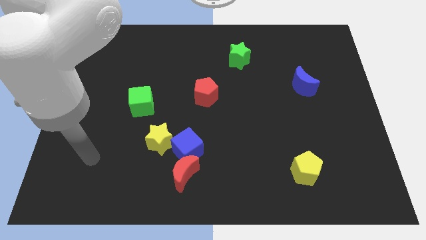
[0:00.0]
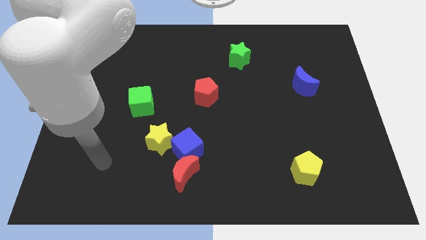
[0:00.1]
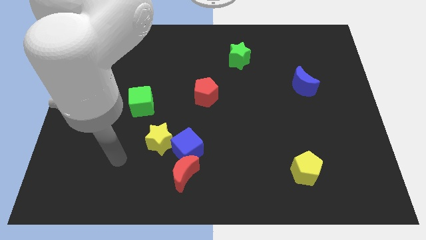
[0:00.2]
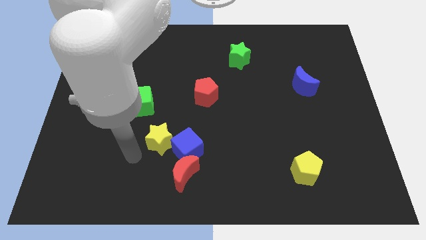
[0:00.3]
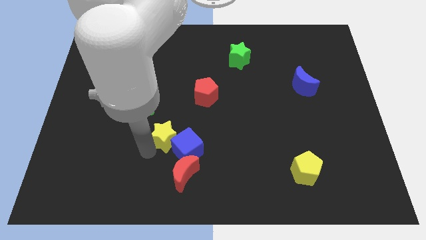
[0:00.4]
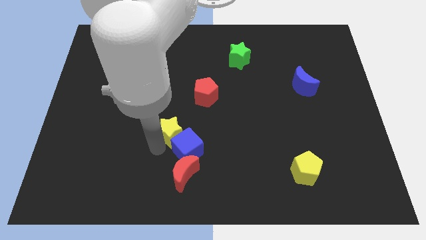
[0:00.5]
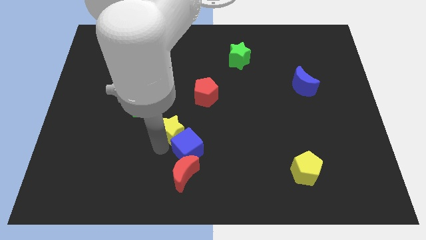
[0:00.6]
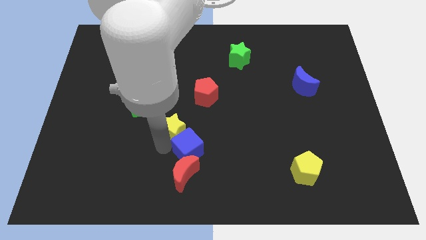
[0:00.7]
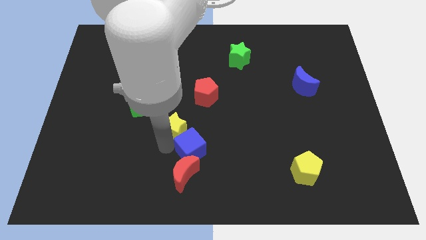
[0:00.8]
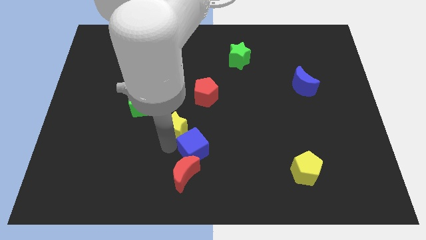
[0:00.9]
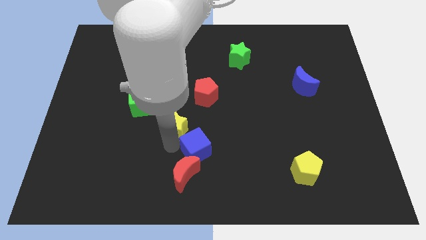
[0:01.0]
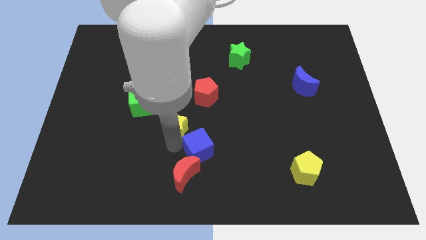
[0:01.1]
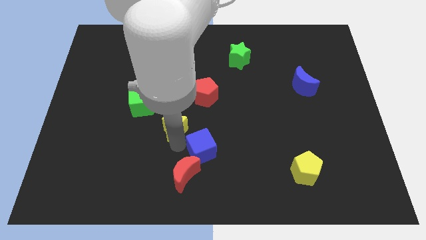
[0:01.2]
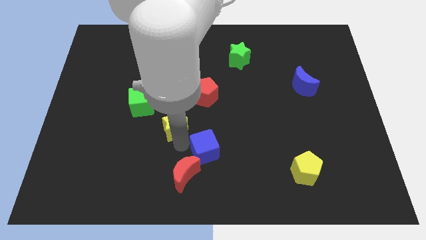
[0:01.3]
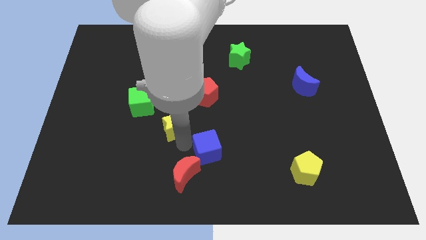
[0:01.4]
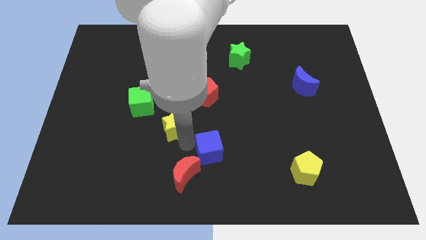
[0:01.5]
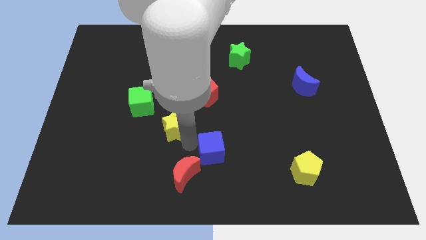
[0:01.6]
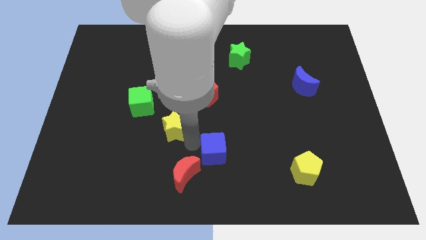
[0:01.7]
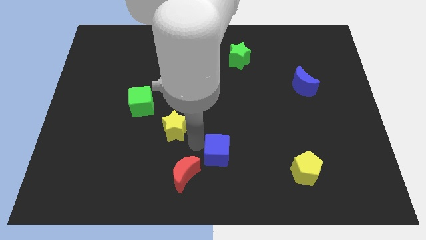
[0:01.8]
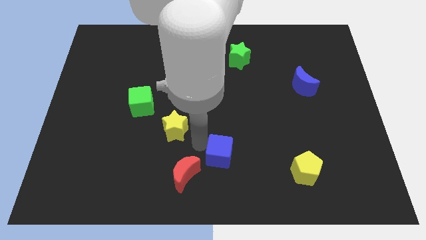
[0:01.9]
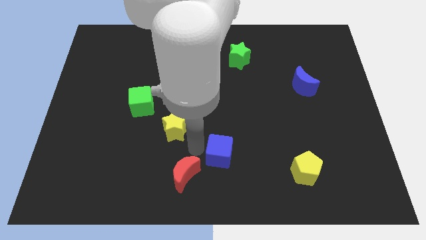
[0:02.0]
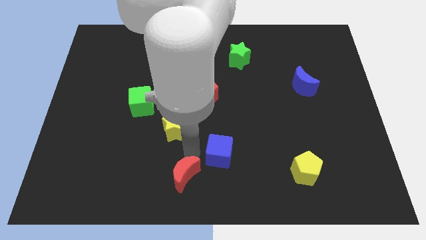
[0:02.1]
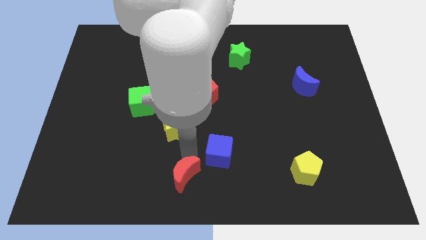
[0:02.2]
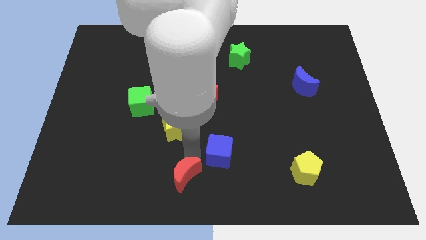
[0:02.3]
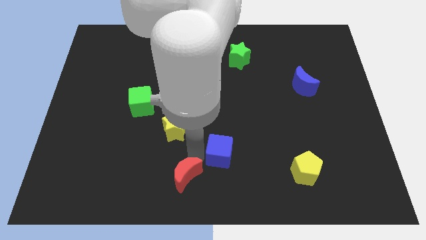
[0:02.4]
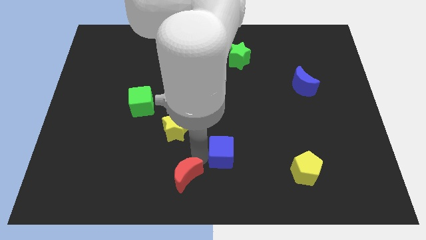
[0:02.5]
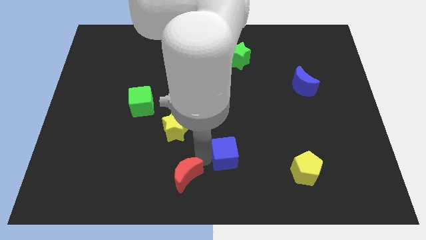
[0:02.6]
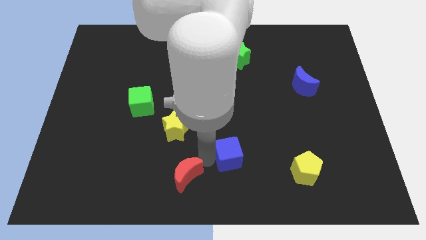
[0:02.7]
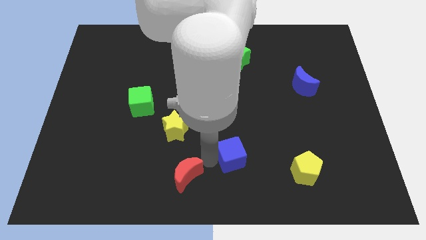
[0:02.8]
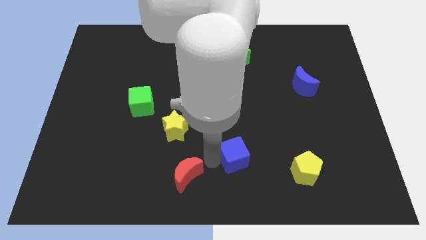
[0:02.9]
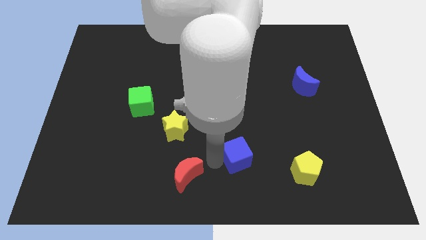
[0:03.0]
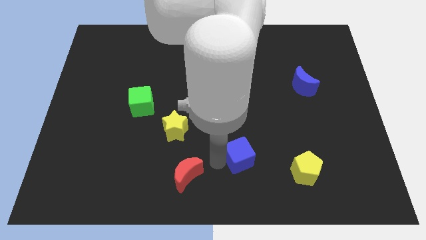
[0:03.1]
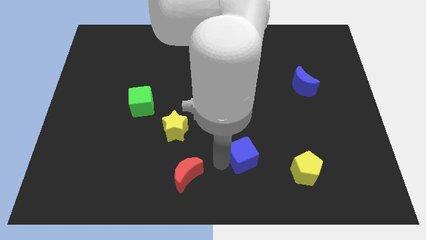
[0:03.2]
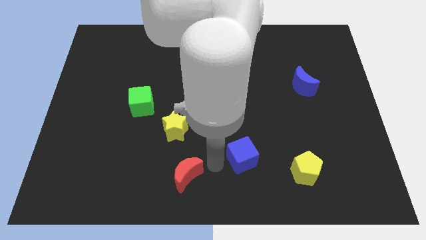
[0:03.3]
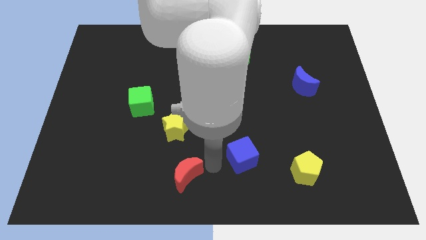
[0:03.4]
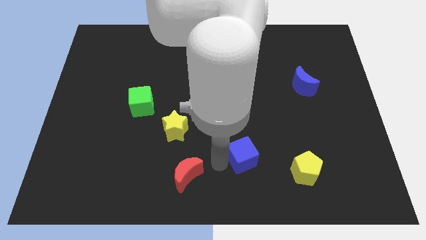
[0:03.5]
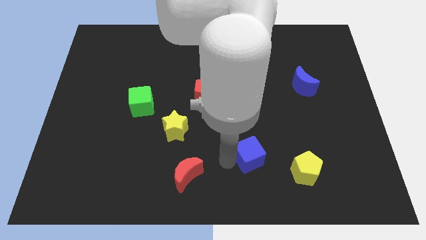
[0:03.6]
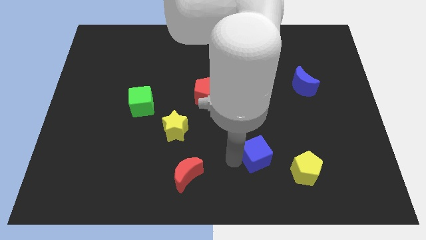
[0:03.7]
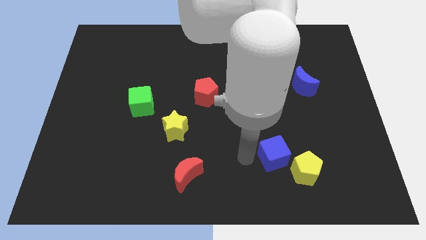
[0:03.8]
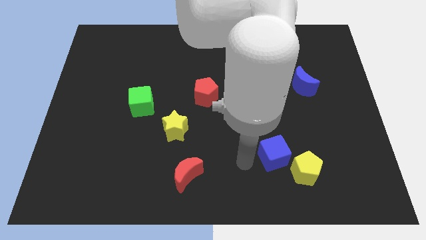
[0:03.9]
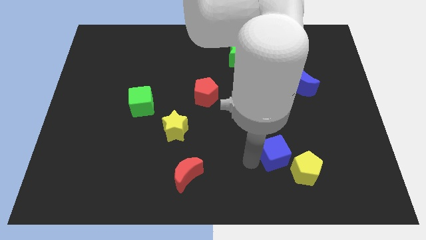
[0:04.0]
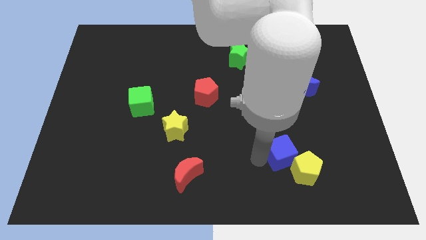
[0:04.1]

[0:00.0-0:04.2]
move the blue cube right

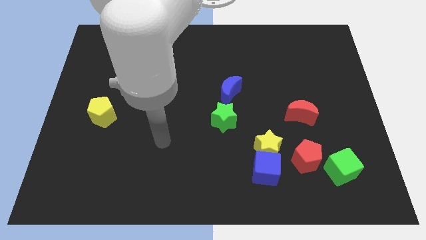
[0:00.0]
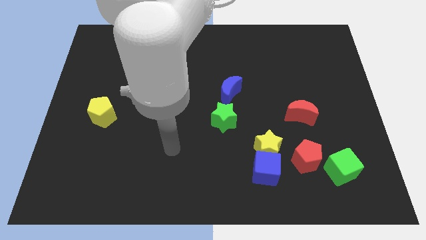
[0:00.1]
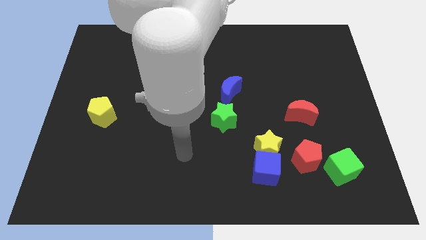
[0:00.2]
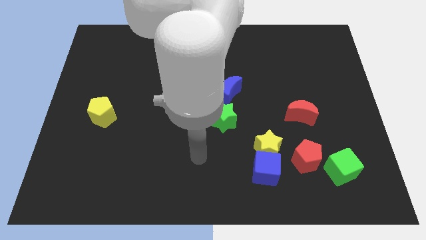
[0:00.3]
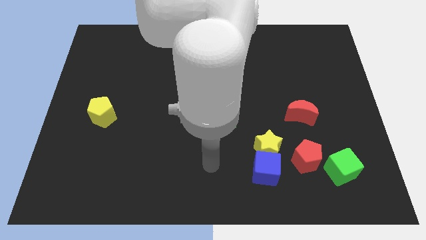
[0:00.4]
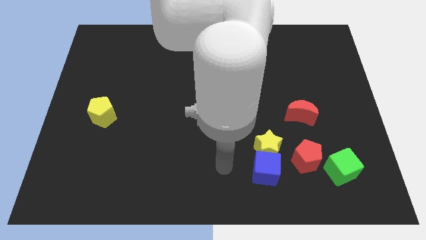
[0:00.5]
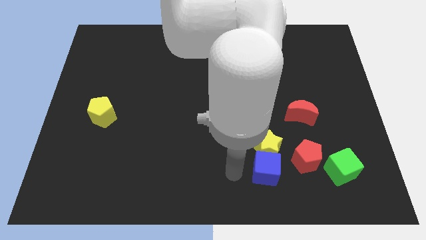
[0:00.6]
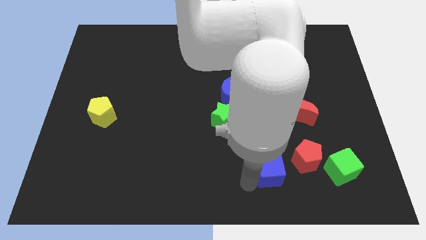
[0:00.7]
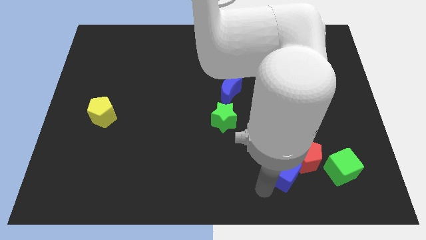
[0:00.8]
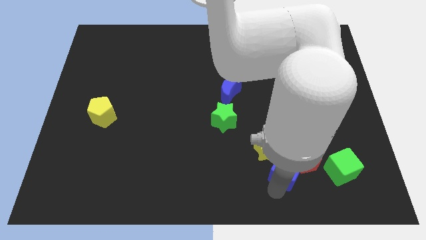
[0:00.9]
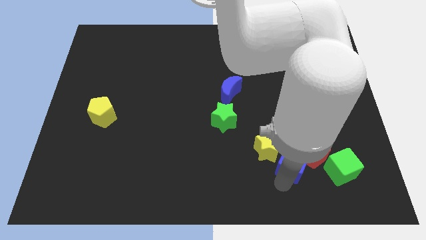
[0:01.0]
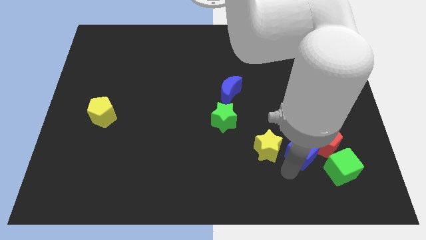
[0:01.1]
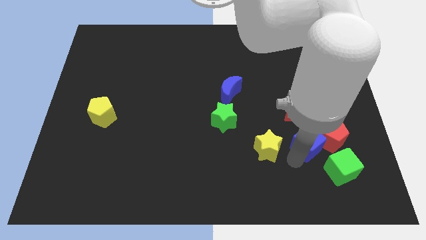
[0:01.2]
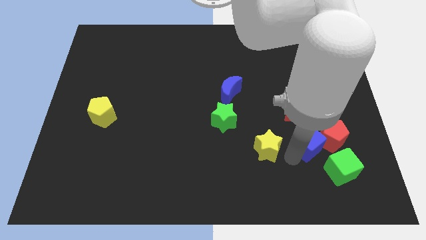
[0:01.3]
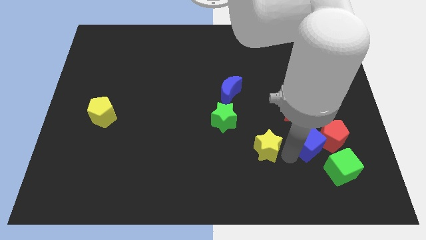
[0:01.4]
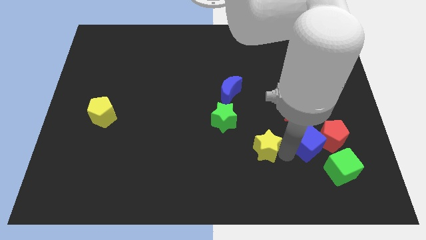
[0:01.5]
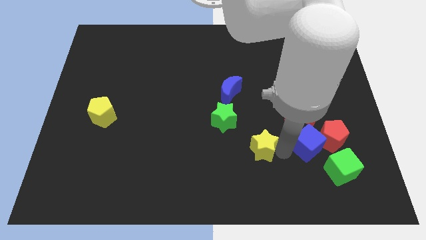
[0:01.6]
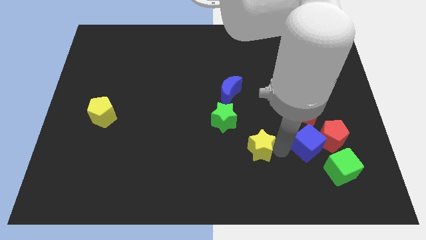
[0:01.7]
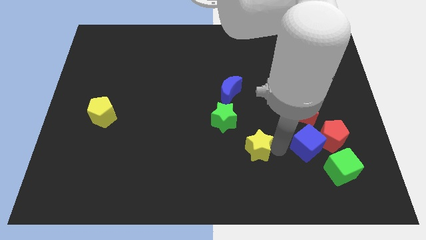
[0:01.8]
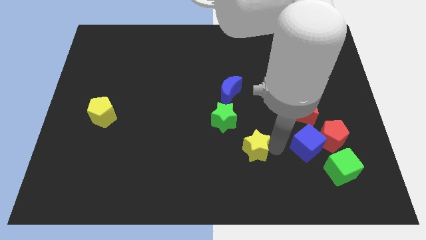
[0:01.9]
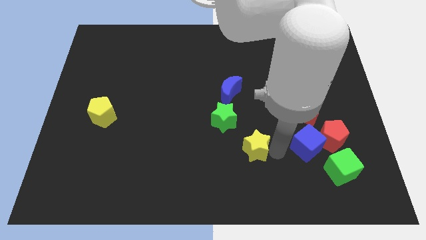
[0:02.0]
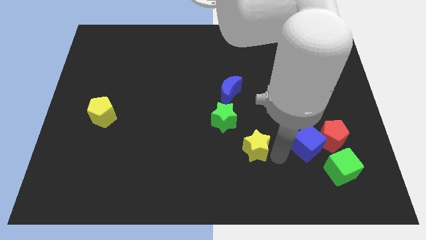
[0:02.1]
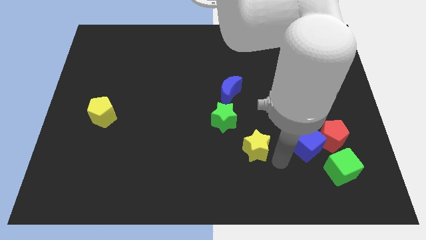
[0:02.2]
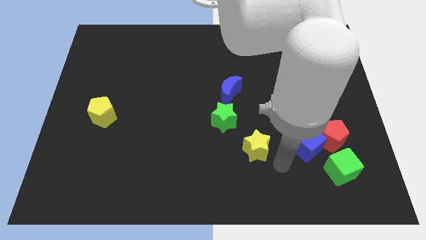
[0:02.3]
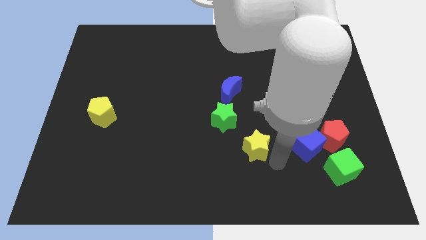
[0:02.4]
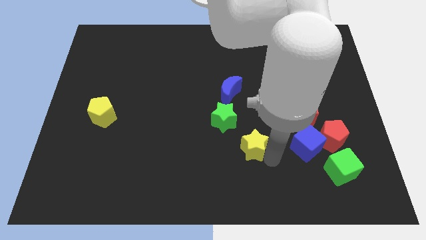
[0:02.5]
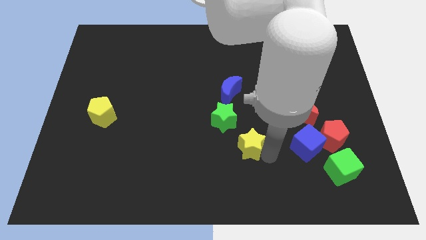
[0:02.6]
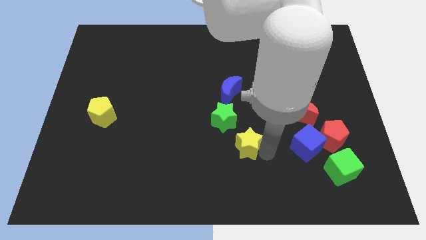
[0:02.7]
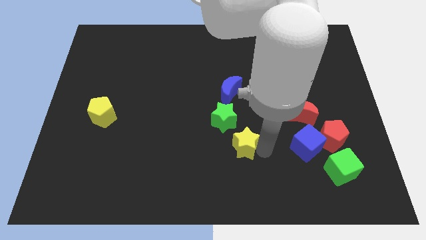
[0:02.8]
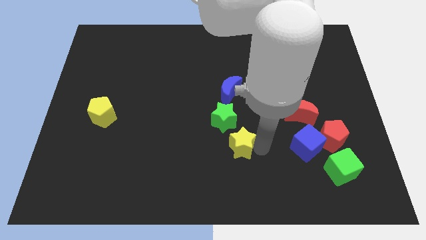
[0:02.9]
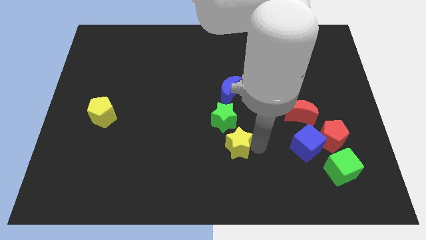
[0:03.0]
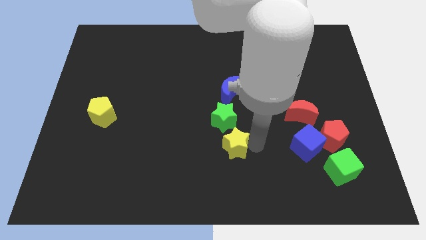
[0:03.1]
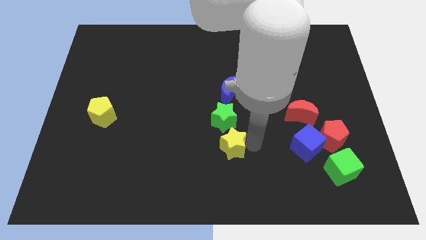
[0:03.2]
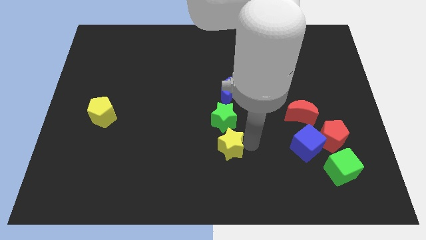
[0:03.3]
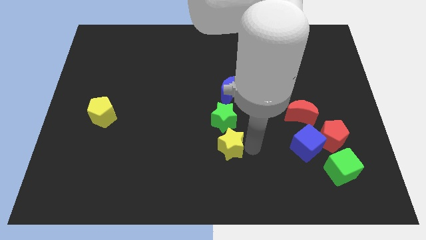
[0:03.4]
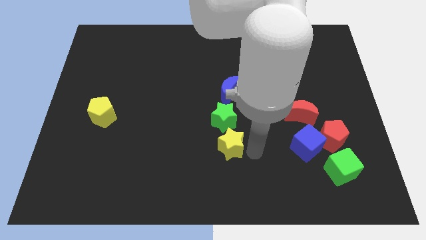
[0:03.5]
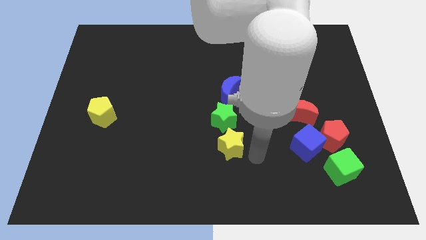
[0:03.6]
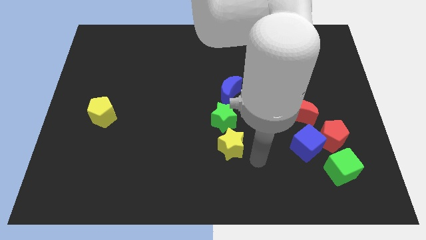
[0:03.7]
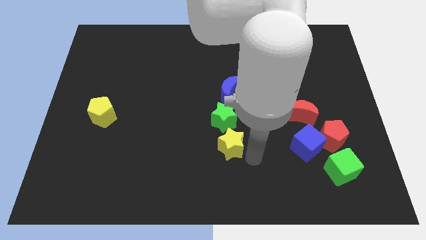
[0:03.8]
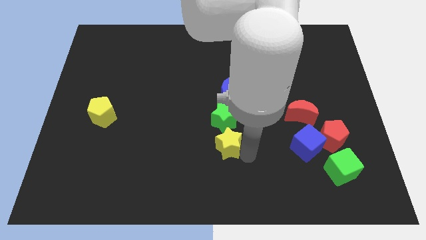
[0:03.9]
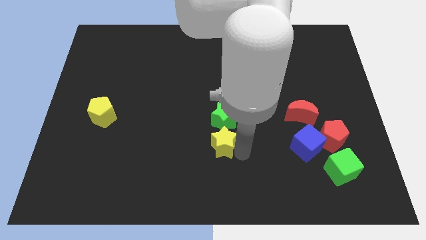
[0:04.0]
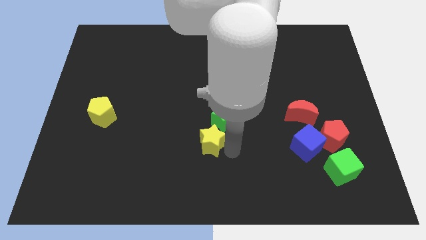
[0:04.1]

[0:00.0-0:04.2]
slide the yellow star upwards and then left slightly
